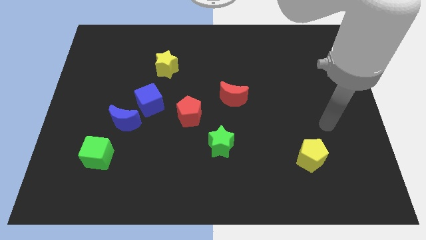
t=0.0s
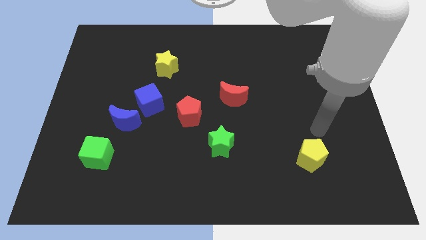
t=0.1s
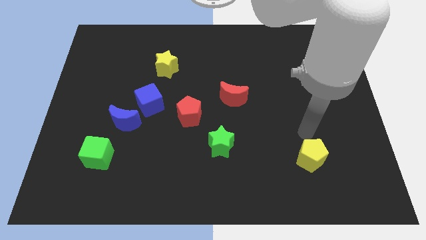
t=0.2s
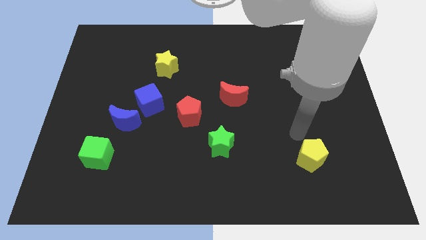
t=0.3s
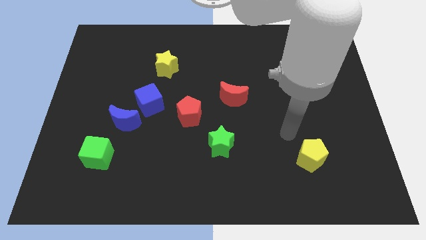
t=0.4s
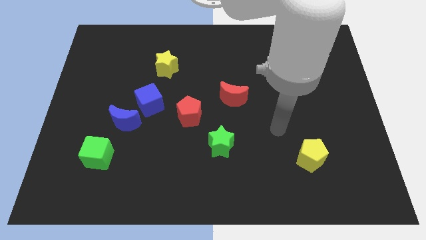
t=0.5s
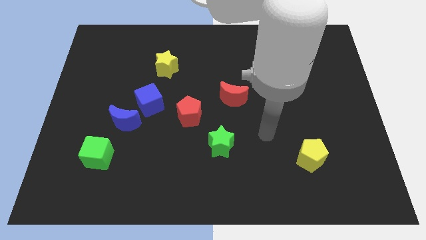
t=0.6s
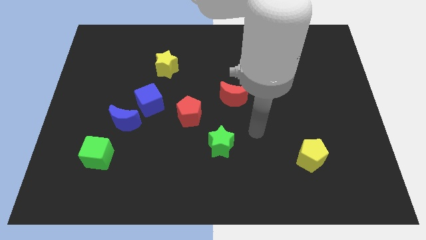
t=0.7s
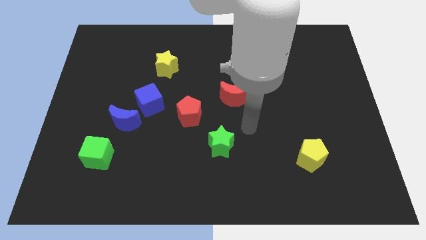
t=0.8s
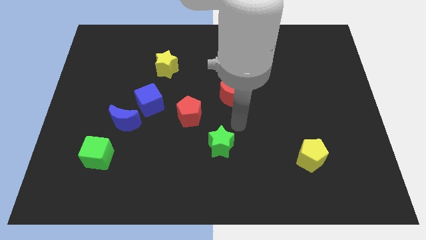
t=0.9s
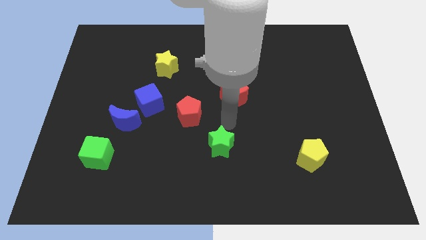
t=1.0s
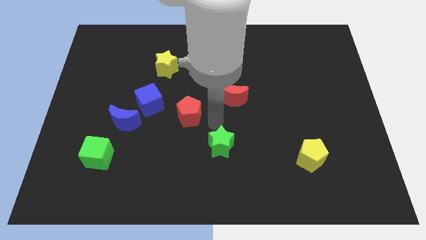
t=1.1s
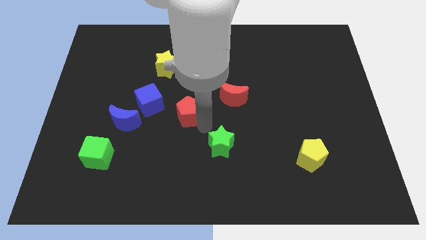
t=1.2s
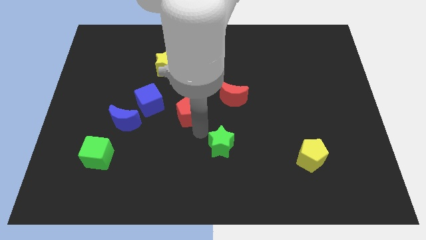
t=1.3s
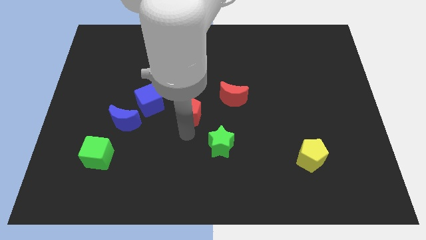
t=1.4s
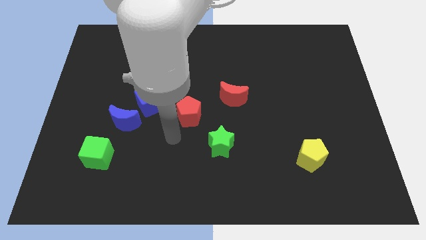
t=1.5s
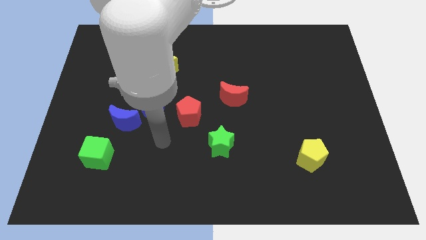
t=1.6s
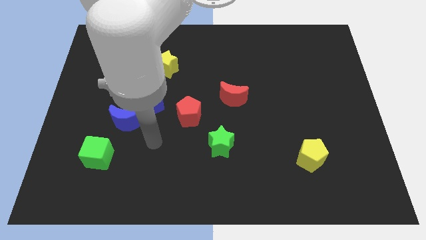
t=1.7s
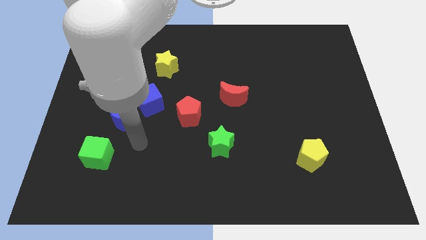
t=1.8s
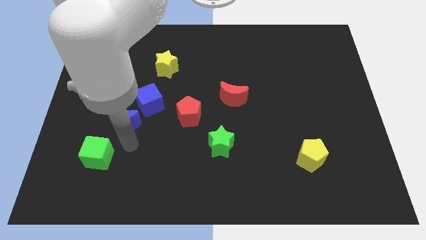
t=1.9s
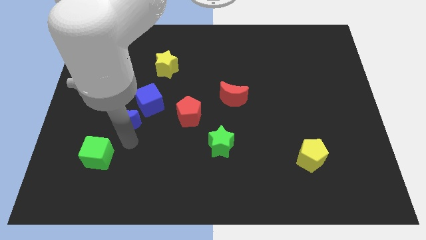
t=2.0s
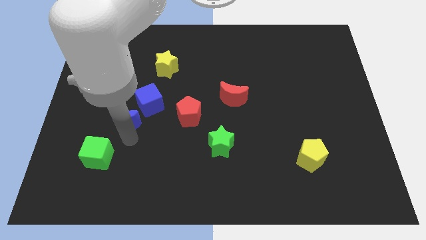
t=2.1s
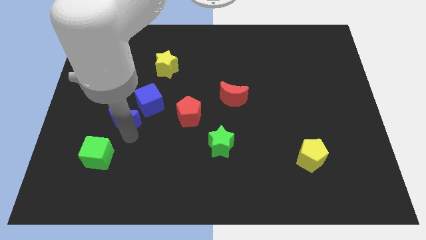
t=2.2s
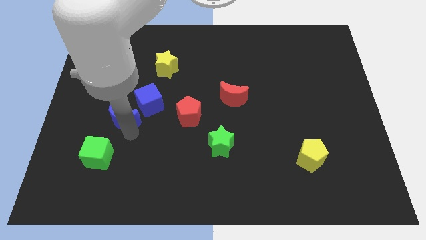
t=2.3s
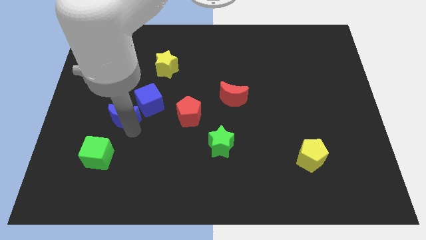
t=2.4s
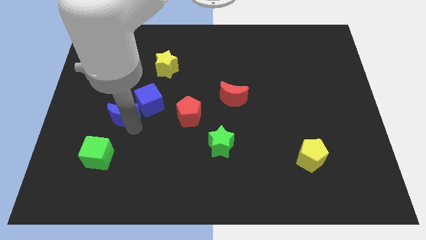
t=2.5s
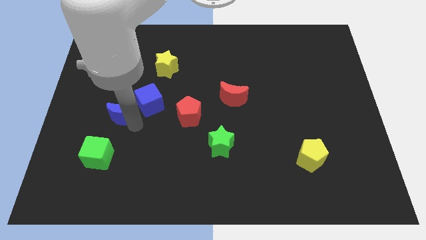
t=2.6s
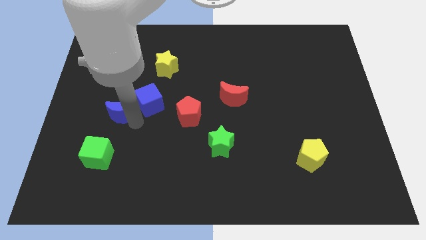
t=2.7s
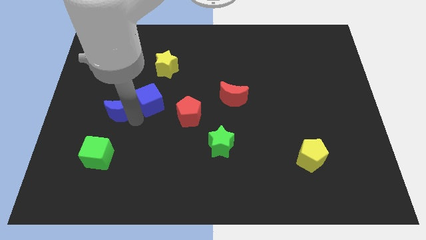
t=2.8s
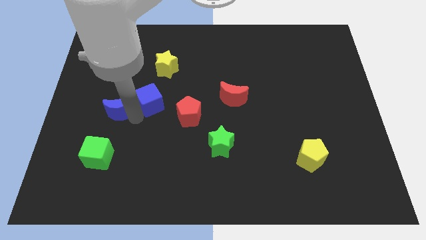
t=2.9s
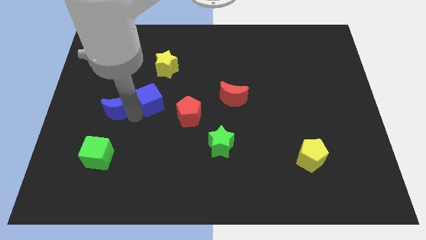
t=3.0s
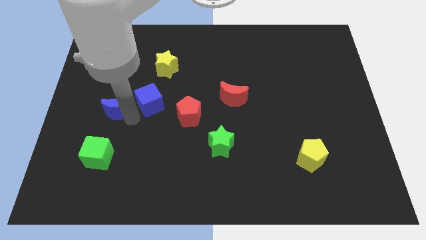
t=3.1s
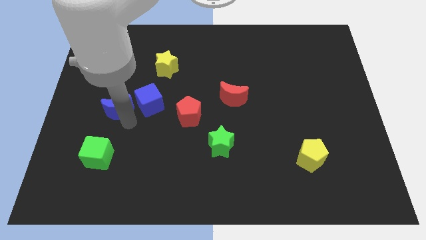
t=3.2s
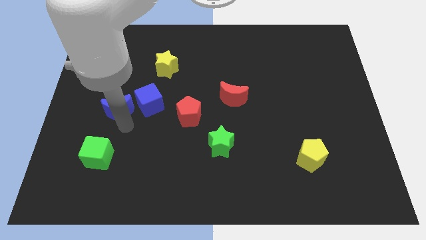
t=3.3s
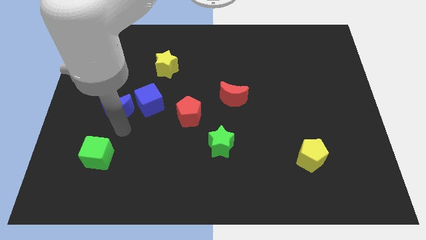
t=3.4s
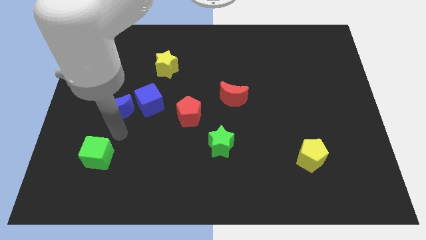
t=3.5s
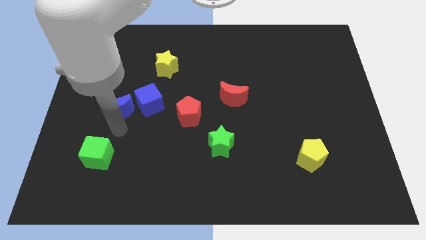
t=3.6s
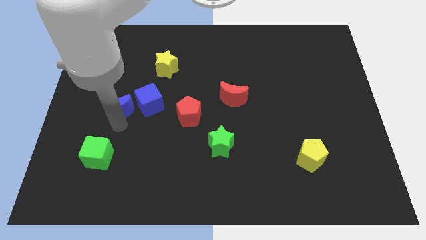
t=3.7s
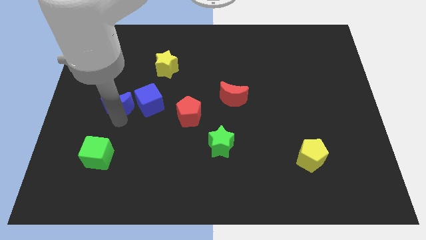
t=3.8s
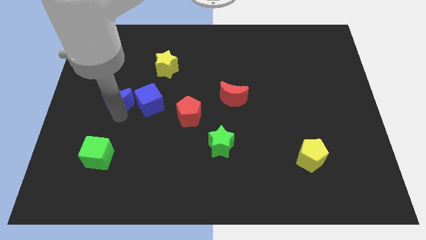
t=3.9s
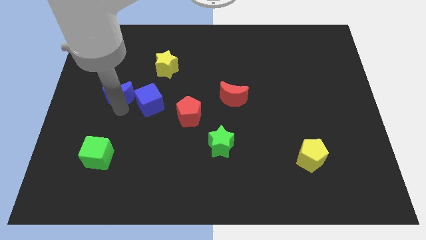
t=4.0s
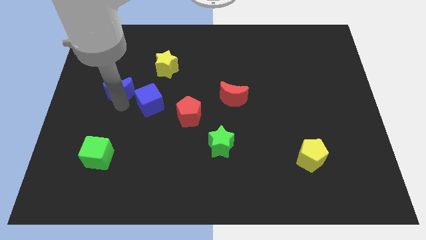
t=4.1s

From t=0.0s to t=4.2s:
separate the blue moon from the blue cube and green cube

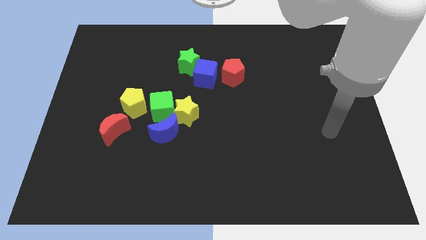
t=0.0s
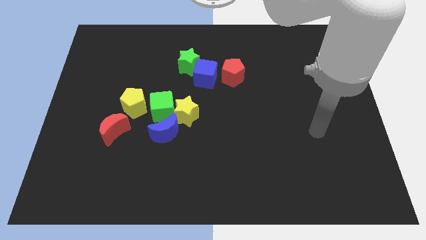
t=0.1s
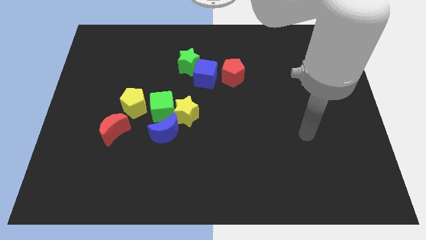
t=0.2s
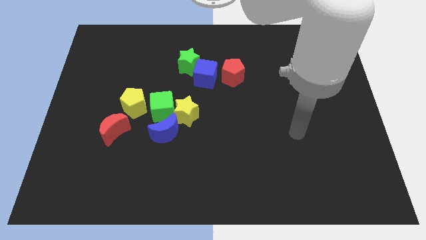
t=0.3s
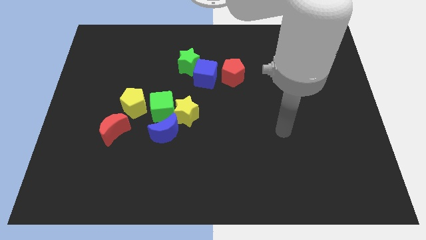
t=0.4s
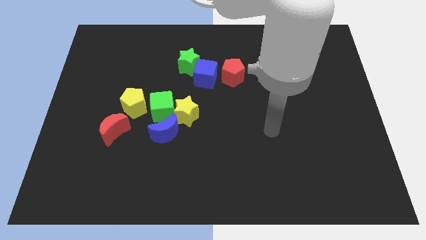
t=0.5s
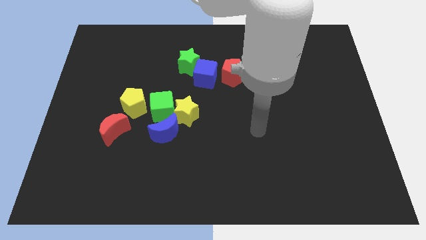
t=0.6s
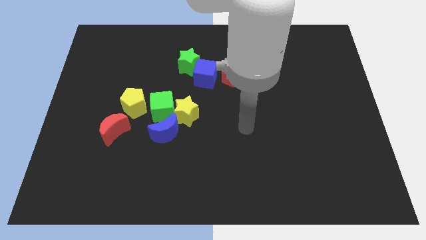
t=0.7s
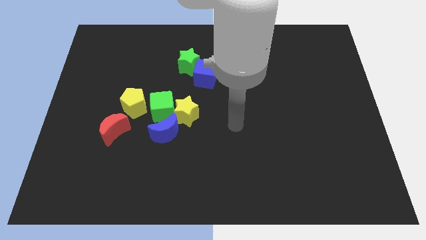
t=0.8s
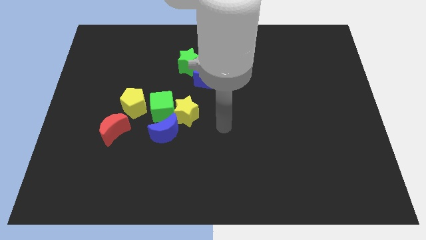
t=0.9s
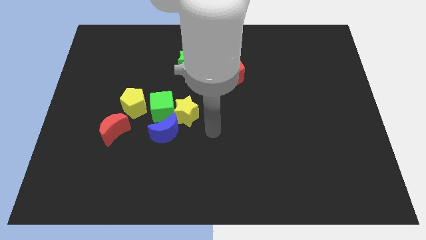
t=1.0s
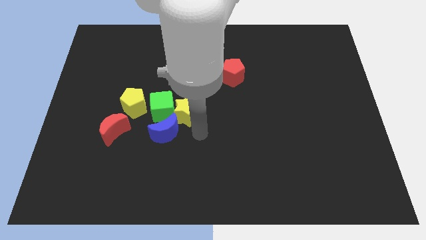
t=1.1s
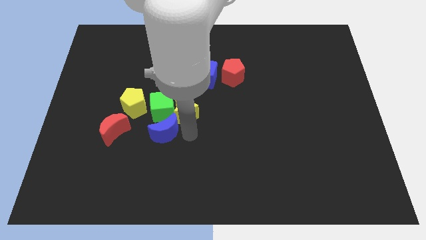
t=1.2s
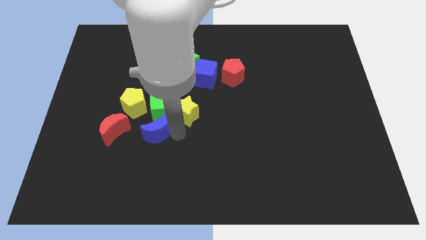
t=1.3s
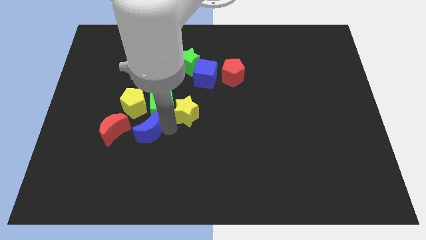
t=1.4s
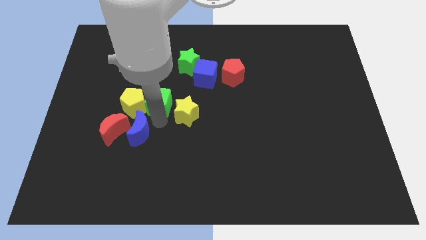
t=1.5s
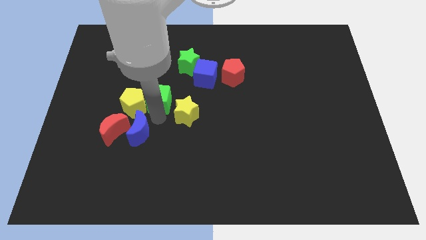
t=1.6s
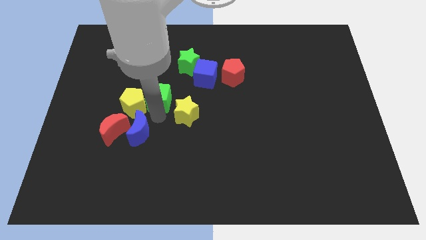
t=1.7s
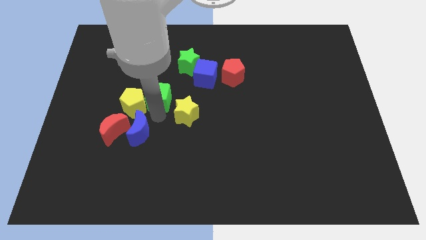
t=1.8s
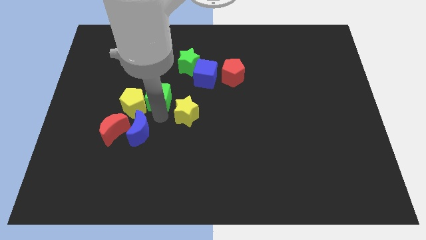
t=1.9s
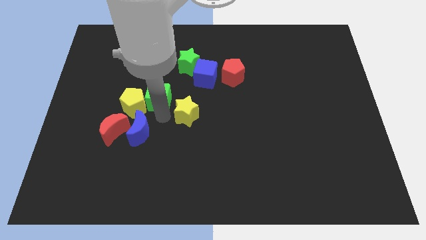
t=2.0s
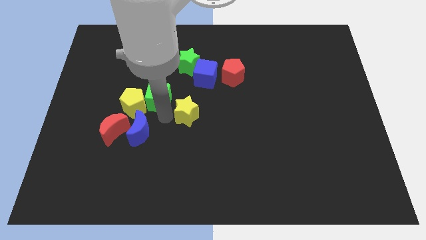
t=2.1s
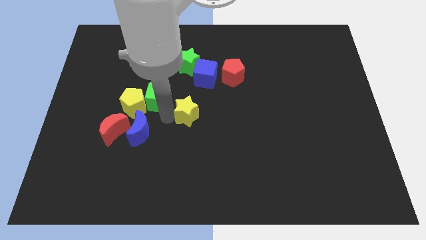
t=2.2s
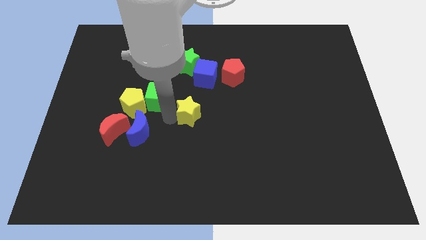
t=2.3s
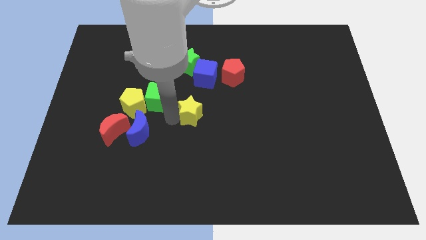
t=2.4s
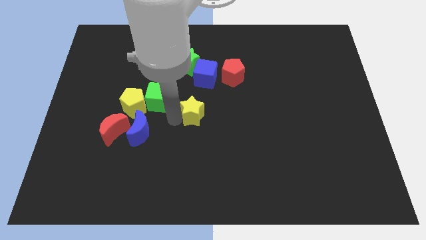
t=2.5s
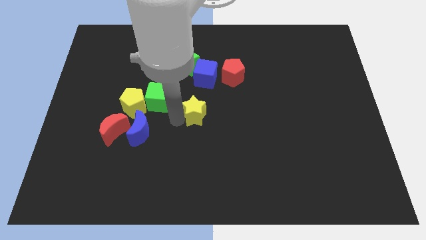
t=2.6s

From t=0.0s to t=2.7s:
move the yellow star away from the green cube and blue moon

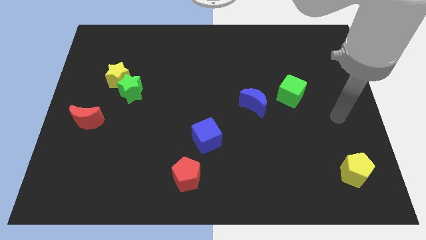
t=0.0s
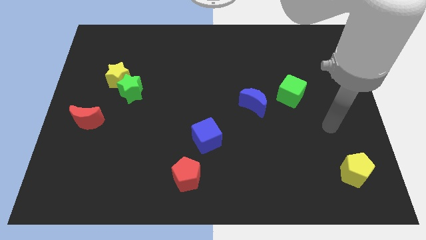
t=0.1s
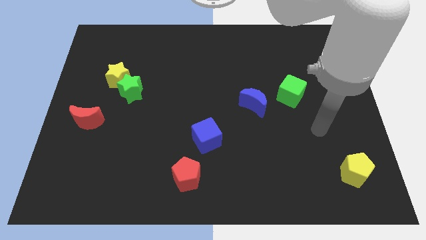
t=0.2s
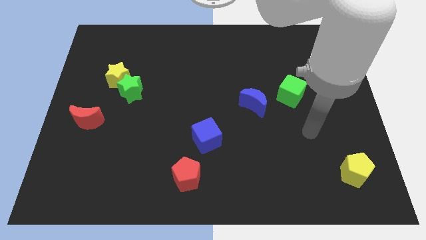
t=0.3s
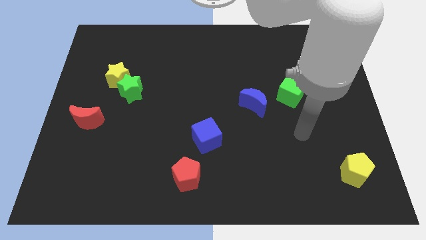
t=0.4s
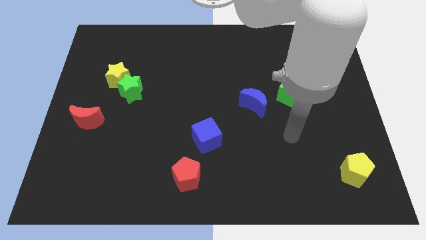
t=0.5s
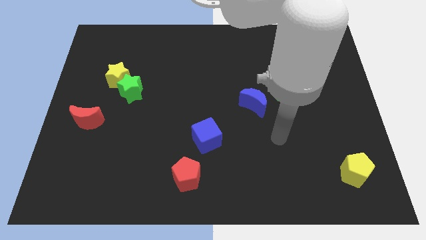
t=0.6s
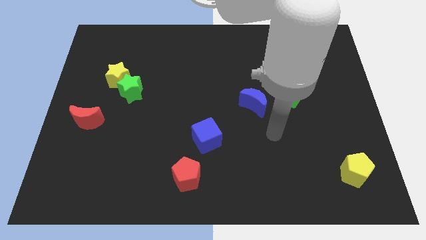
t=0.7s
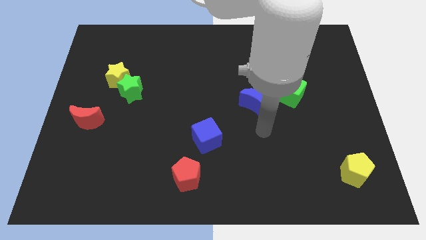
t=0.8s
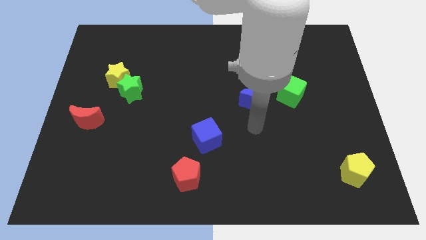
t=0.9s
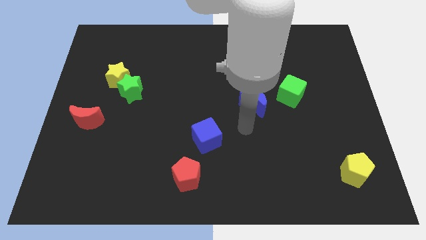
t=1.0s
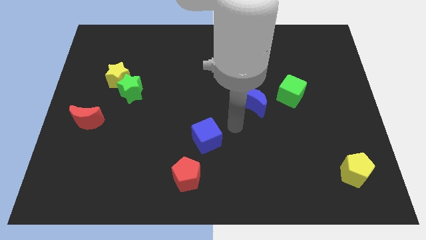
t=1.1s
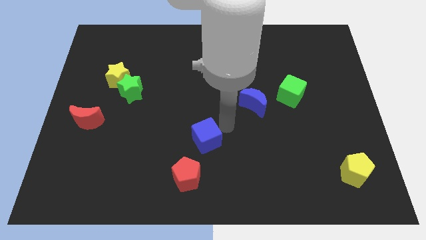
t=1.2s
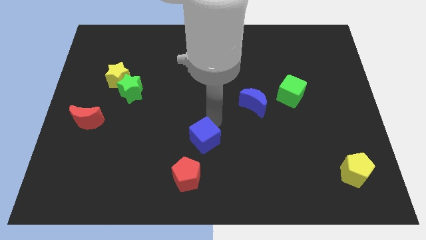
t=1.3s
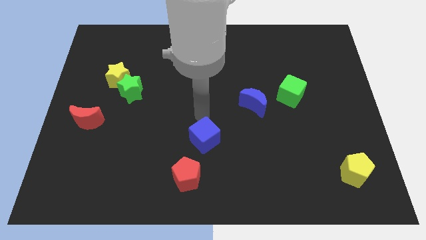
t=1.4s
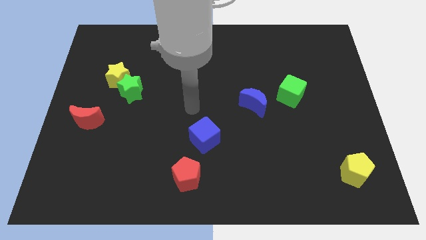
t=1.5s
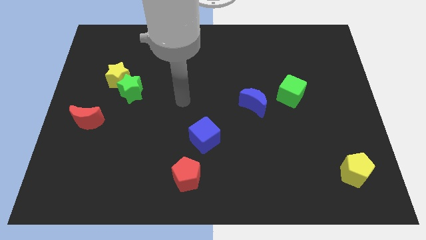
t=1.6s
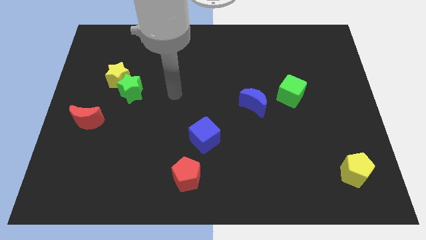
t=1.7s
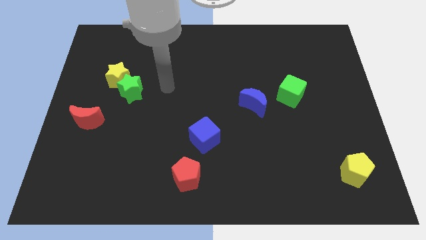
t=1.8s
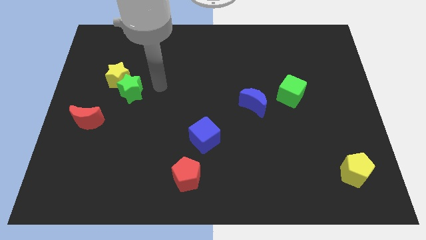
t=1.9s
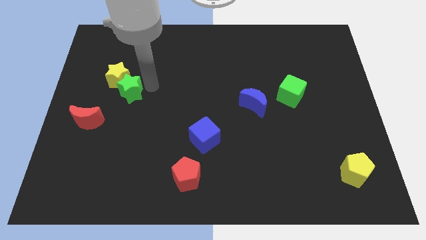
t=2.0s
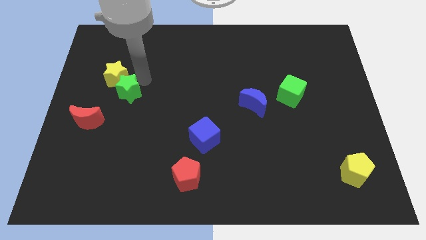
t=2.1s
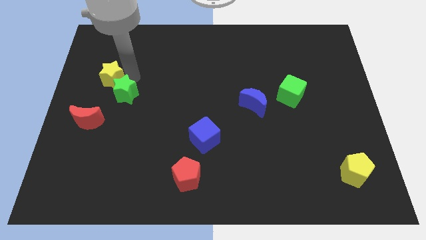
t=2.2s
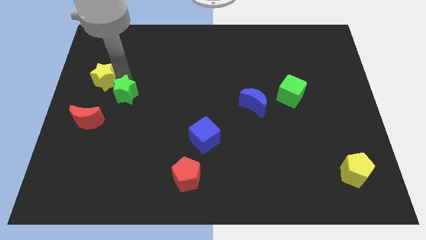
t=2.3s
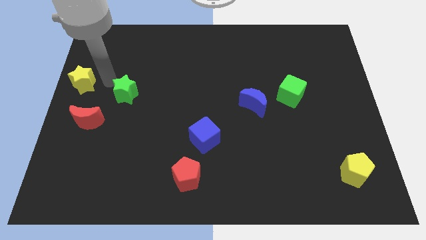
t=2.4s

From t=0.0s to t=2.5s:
separate the green star from the yellow star

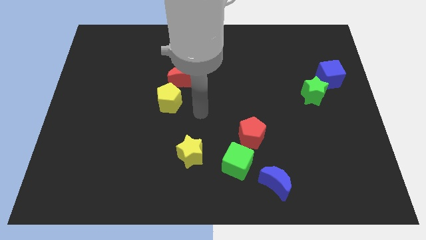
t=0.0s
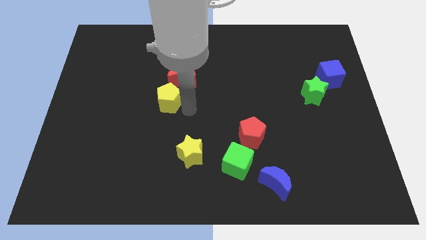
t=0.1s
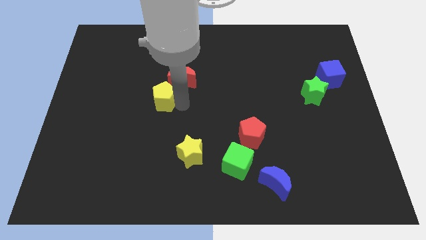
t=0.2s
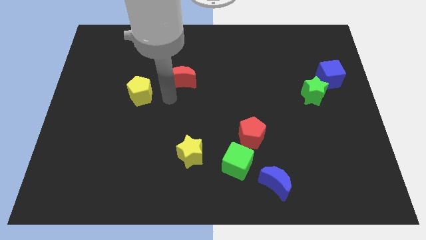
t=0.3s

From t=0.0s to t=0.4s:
pull the red moon apart from the yellow pentagon
